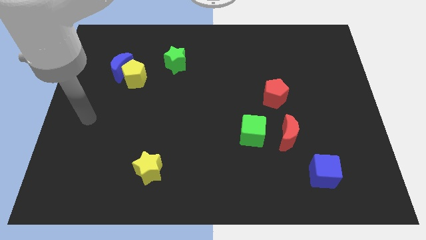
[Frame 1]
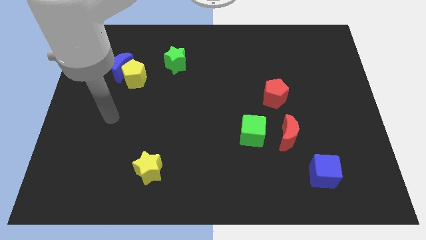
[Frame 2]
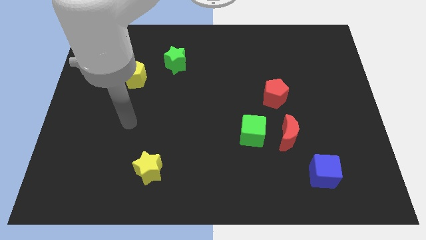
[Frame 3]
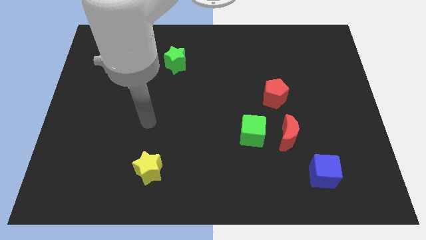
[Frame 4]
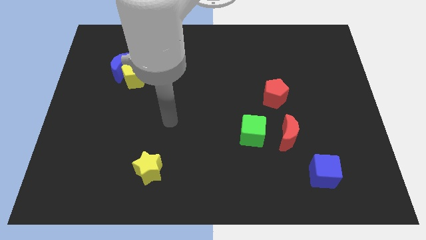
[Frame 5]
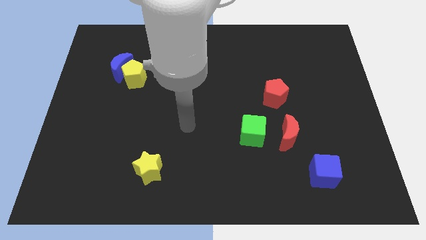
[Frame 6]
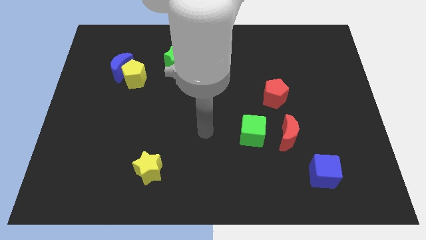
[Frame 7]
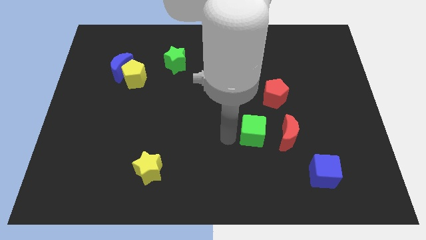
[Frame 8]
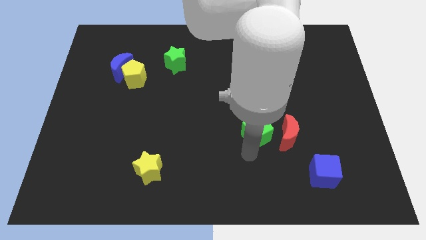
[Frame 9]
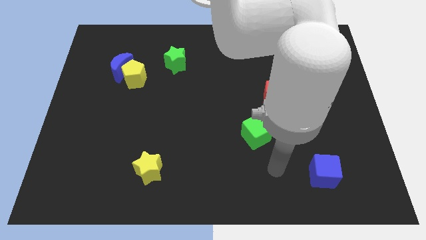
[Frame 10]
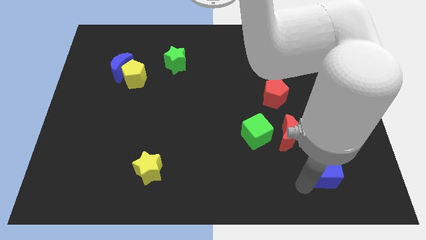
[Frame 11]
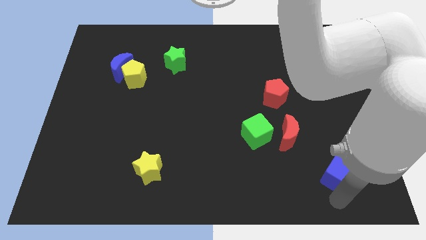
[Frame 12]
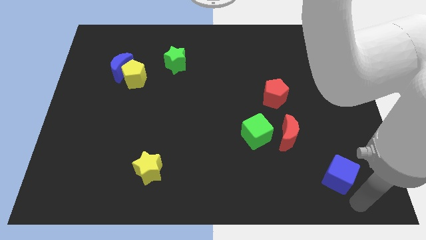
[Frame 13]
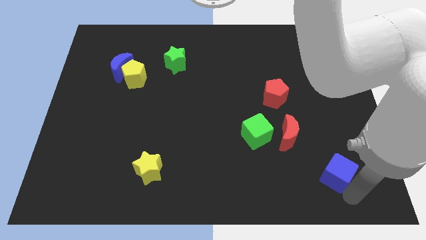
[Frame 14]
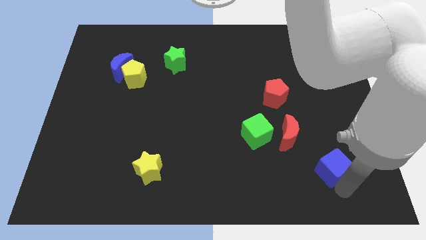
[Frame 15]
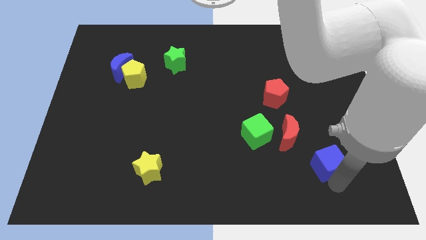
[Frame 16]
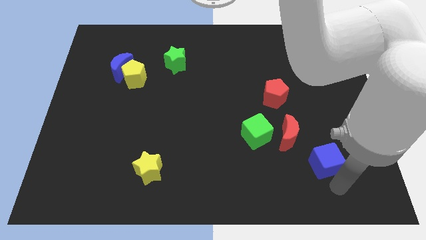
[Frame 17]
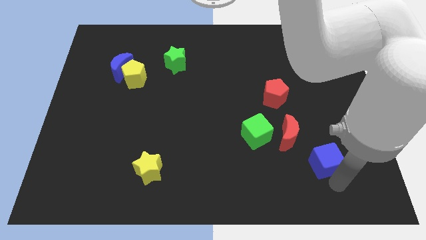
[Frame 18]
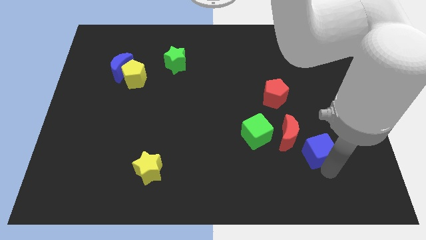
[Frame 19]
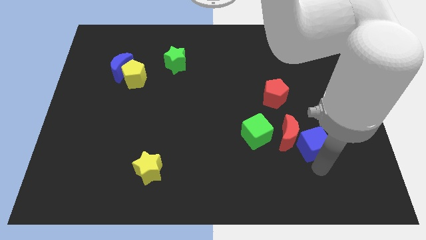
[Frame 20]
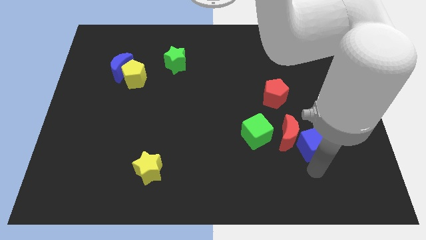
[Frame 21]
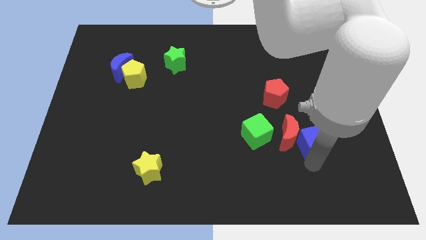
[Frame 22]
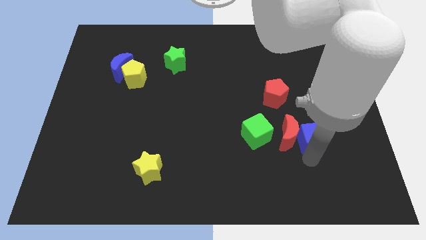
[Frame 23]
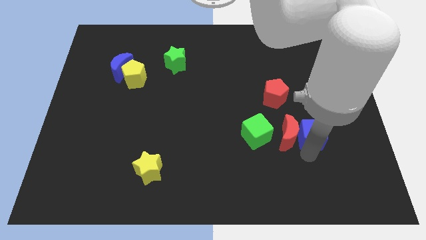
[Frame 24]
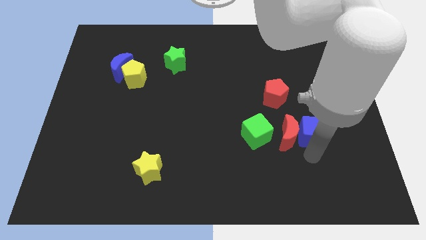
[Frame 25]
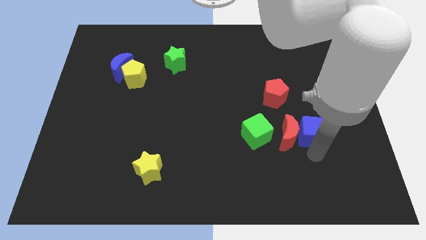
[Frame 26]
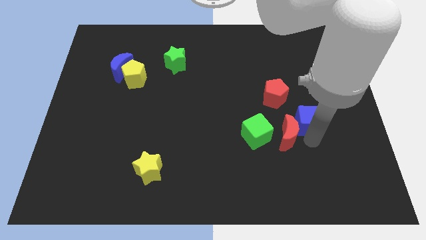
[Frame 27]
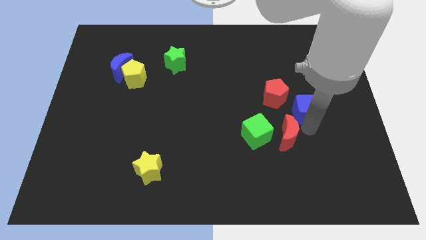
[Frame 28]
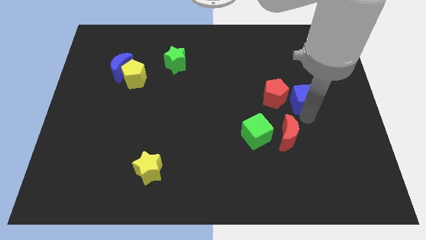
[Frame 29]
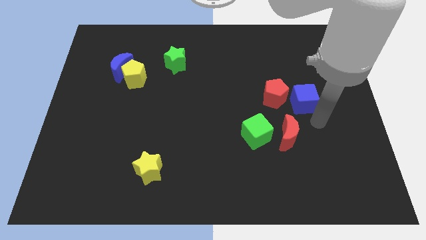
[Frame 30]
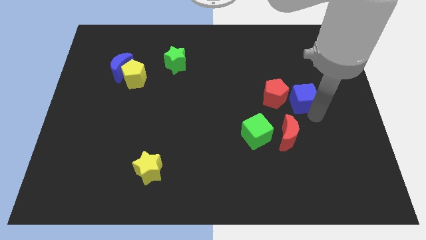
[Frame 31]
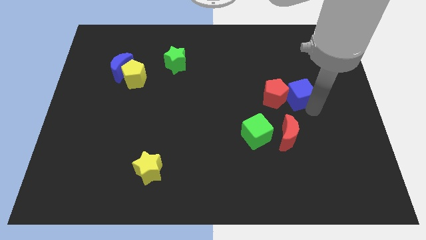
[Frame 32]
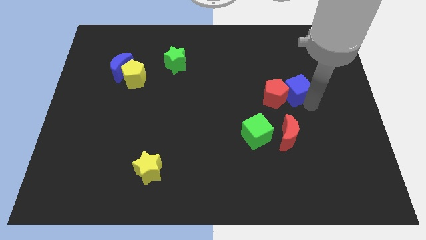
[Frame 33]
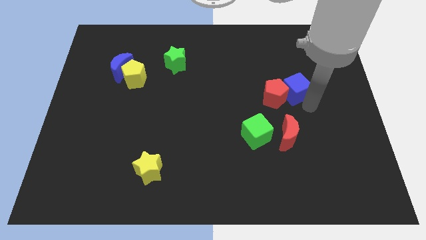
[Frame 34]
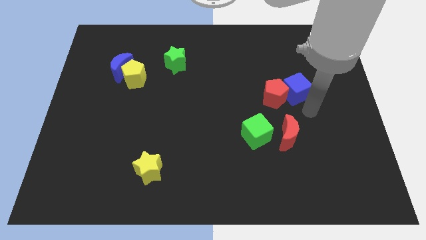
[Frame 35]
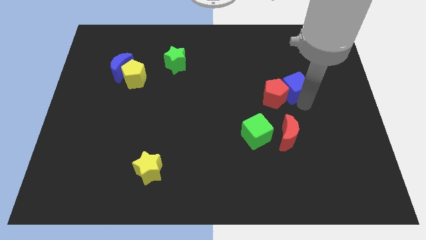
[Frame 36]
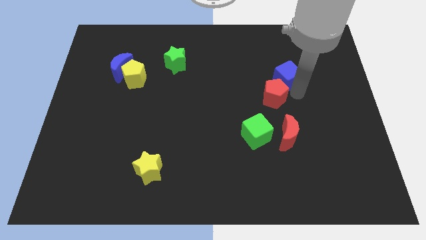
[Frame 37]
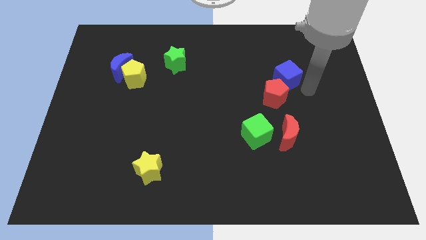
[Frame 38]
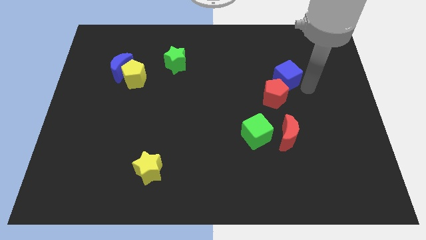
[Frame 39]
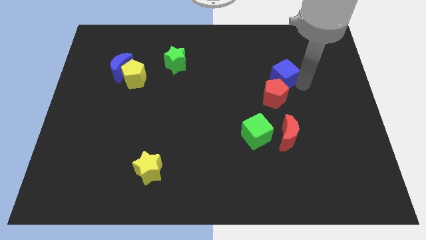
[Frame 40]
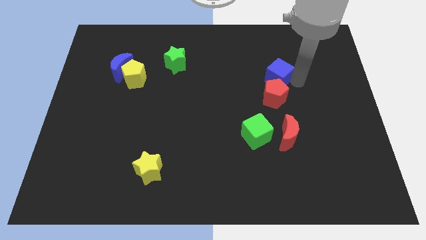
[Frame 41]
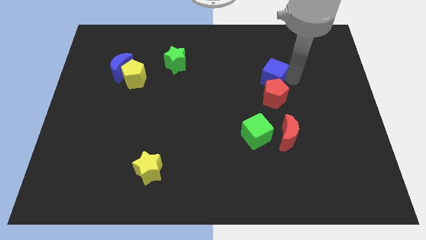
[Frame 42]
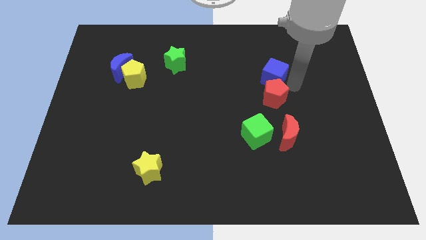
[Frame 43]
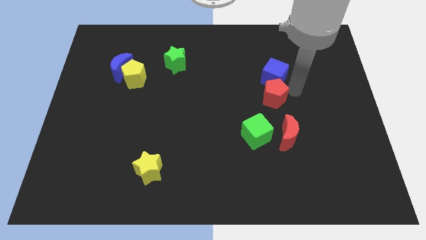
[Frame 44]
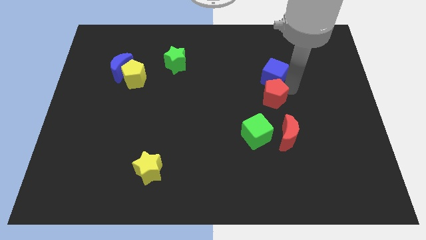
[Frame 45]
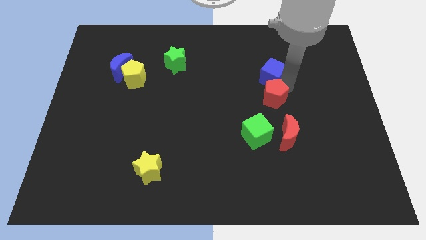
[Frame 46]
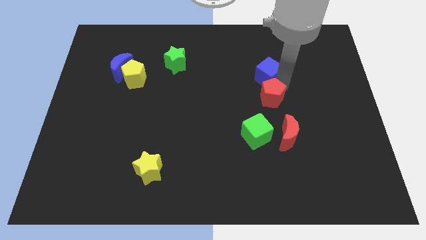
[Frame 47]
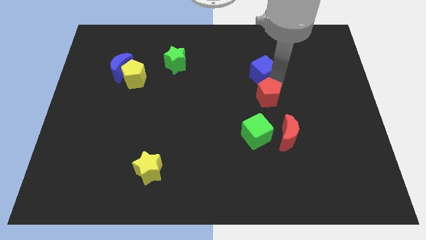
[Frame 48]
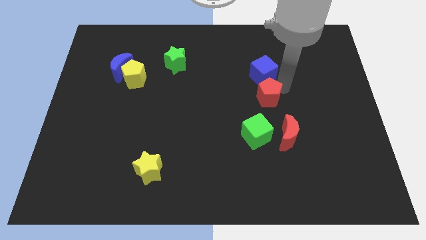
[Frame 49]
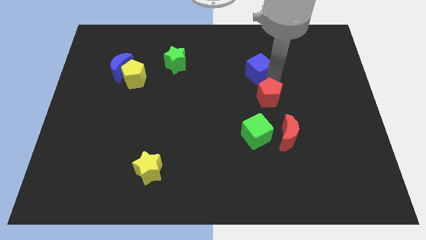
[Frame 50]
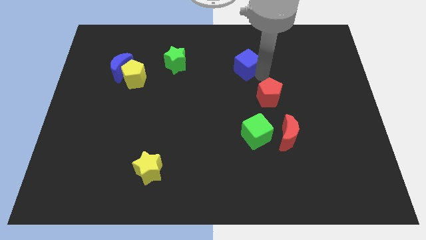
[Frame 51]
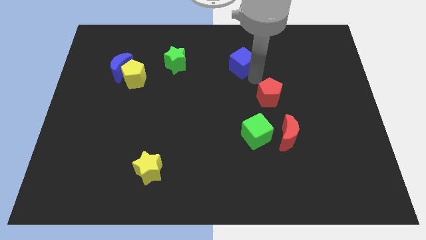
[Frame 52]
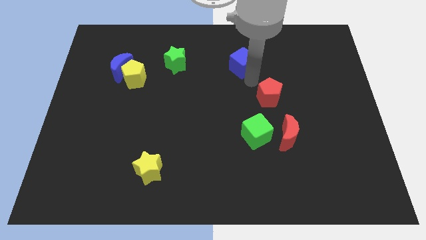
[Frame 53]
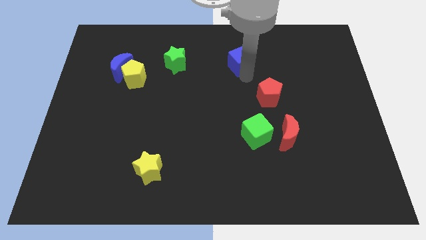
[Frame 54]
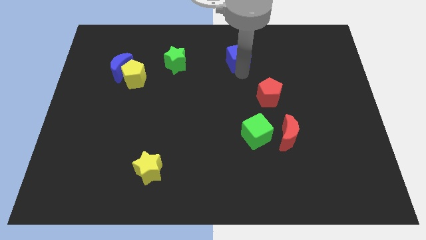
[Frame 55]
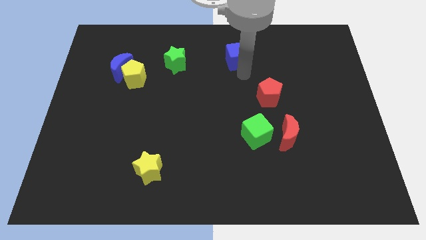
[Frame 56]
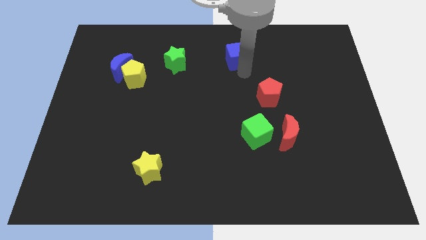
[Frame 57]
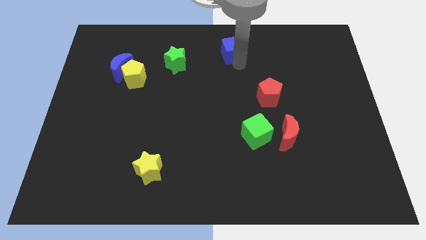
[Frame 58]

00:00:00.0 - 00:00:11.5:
push the blue cube to the top side

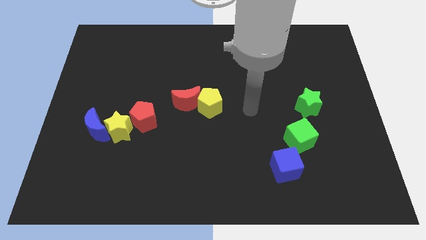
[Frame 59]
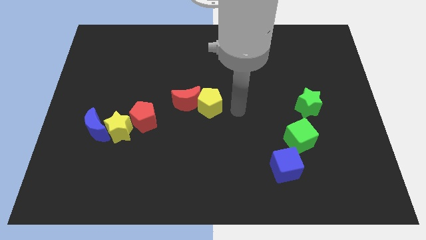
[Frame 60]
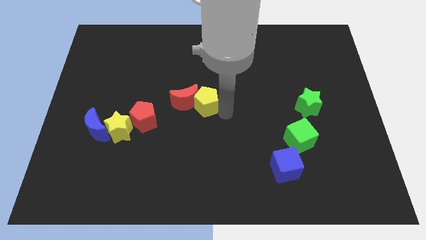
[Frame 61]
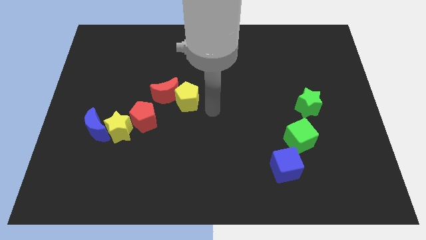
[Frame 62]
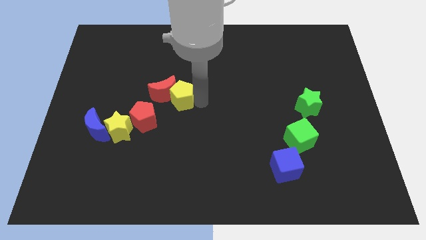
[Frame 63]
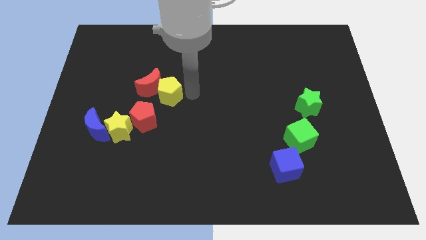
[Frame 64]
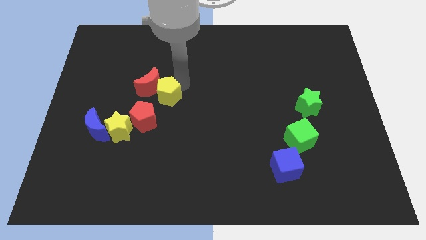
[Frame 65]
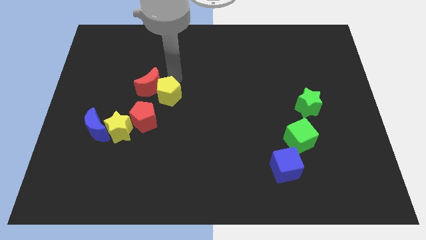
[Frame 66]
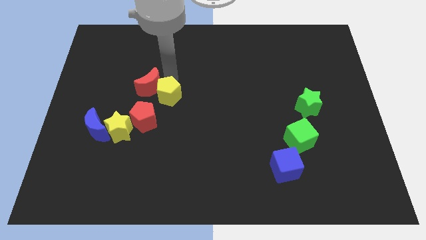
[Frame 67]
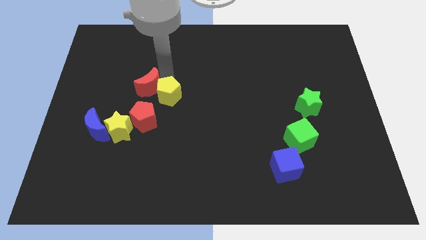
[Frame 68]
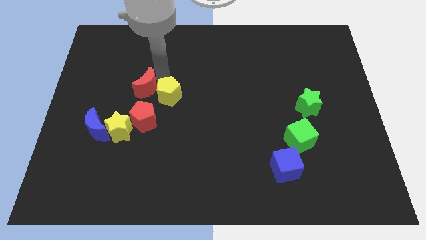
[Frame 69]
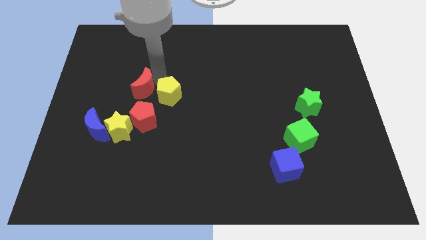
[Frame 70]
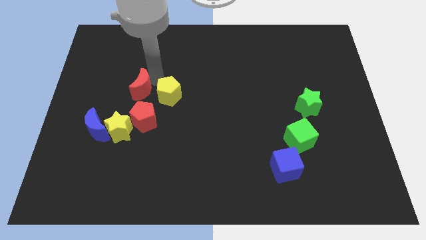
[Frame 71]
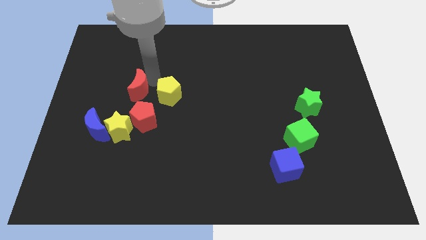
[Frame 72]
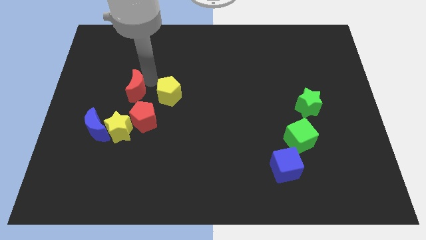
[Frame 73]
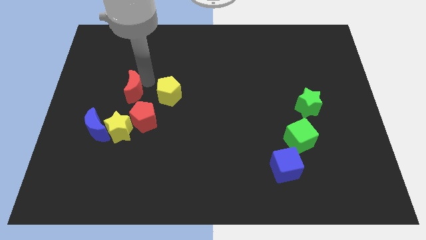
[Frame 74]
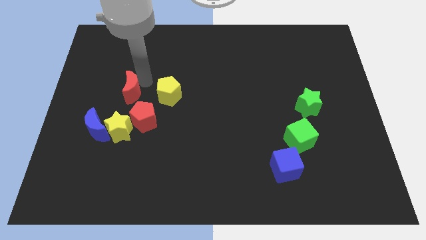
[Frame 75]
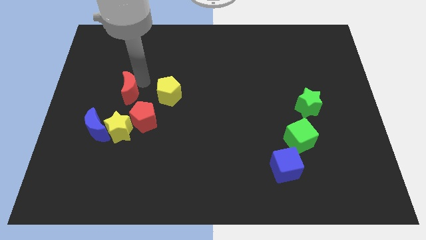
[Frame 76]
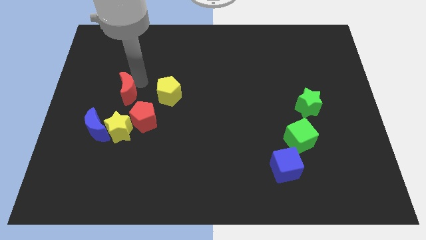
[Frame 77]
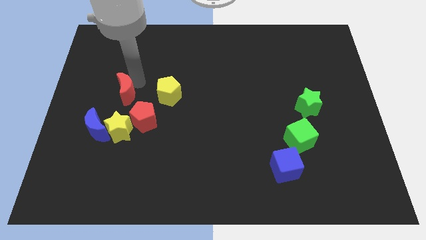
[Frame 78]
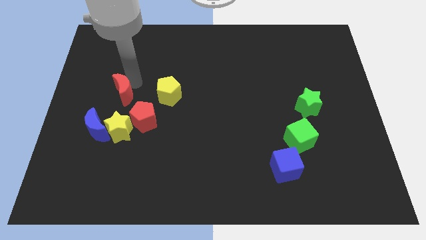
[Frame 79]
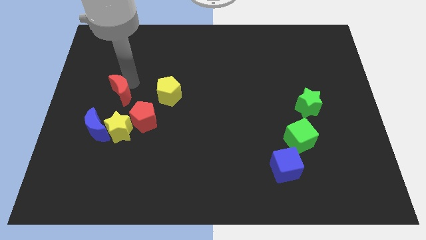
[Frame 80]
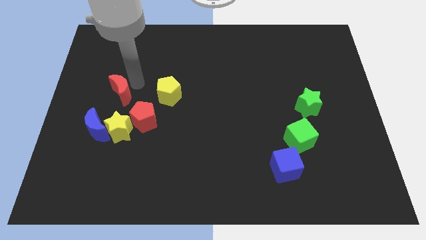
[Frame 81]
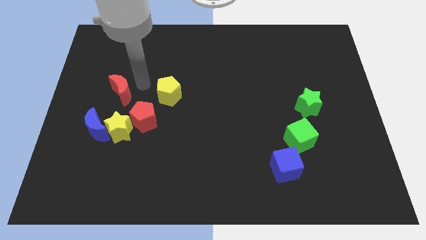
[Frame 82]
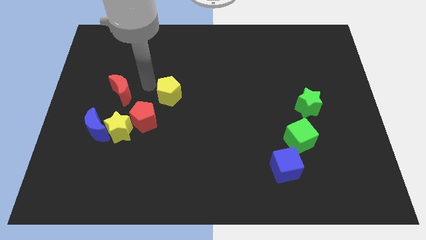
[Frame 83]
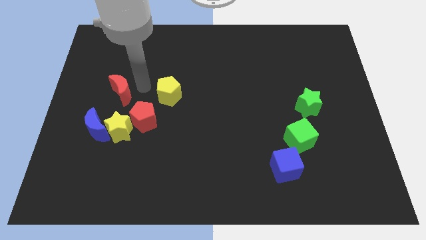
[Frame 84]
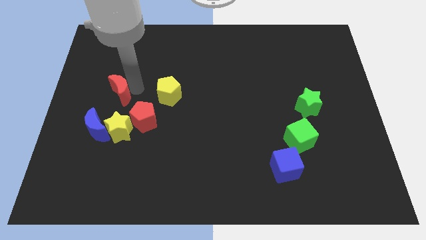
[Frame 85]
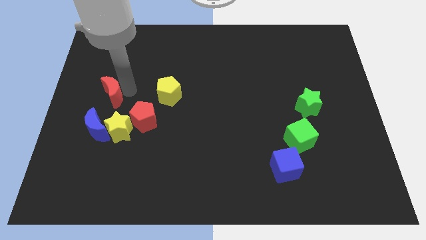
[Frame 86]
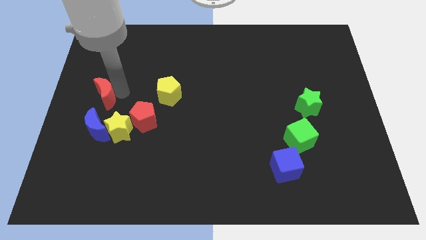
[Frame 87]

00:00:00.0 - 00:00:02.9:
push the red moon to the center left
